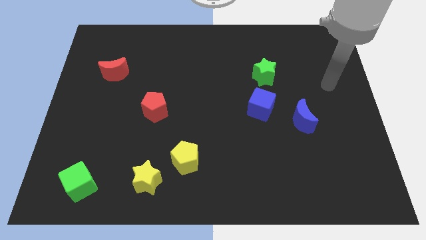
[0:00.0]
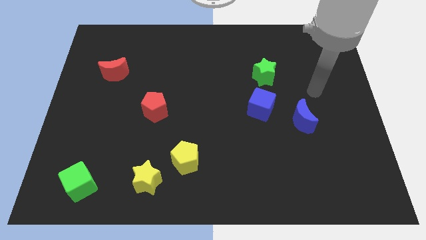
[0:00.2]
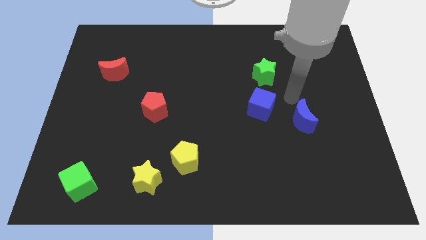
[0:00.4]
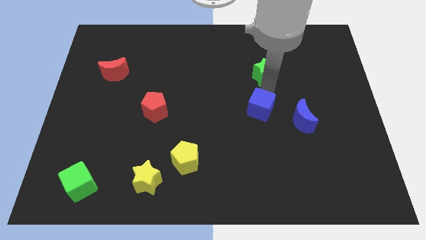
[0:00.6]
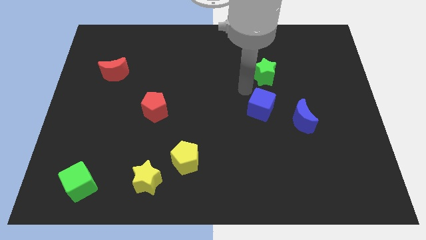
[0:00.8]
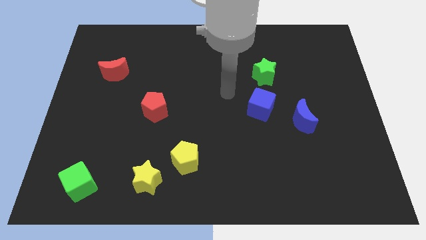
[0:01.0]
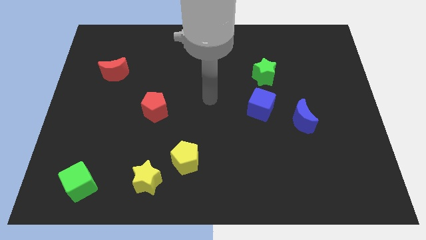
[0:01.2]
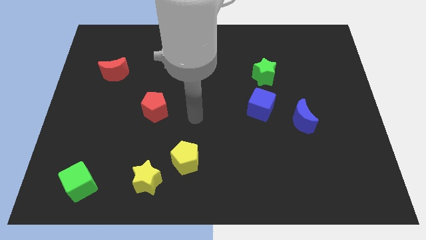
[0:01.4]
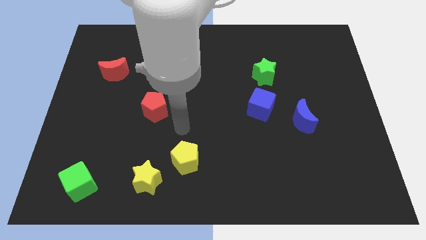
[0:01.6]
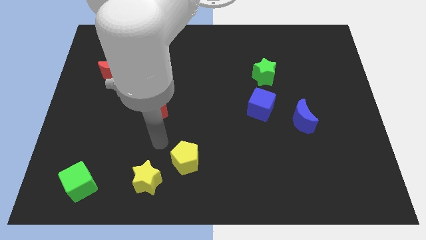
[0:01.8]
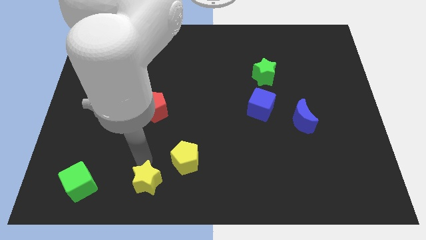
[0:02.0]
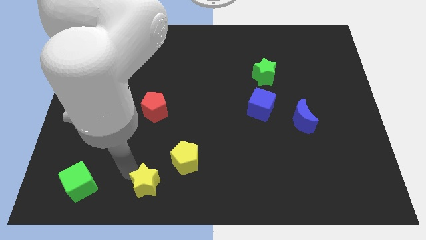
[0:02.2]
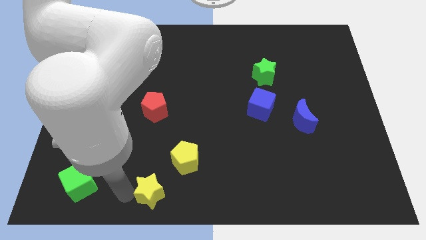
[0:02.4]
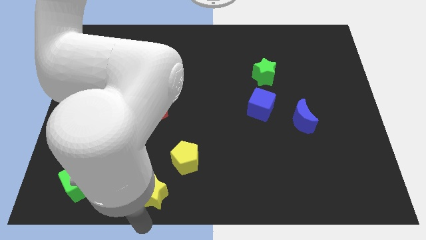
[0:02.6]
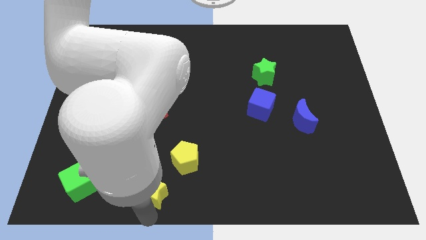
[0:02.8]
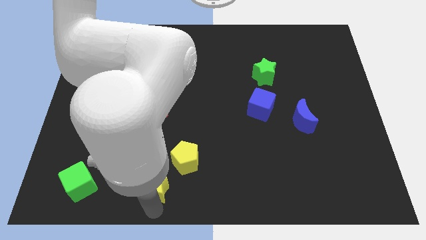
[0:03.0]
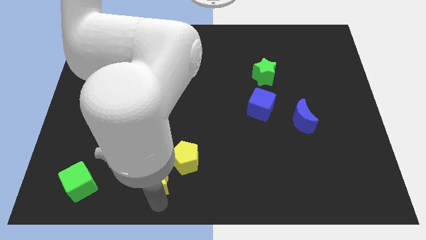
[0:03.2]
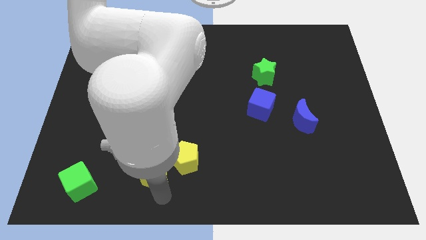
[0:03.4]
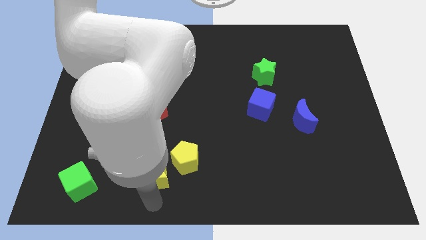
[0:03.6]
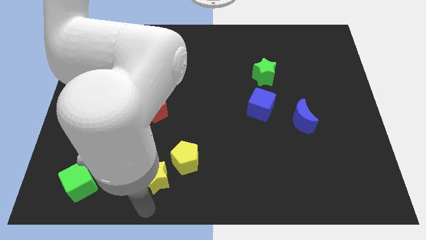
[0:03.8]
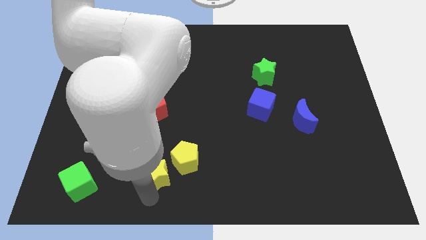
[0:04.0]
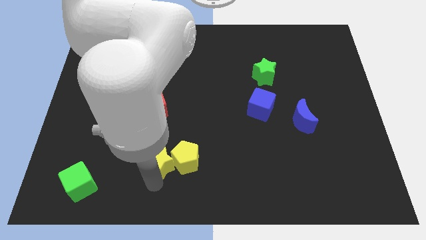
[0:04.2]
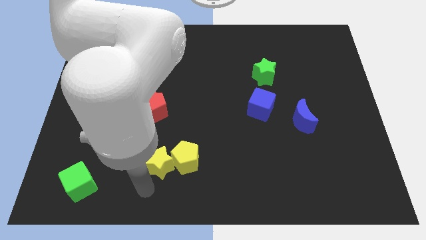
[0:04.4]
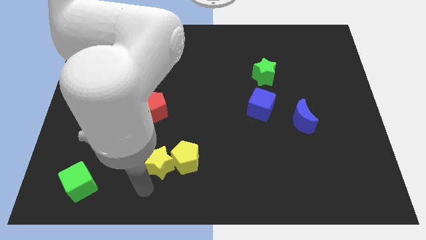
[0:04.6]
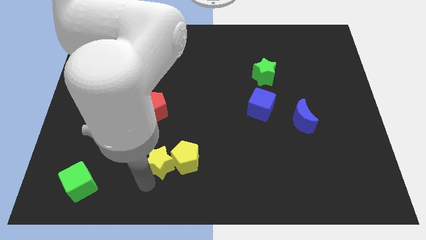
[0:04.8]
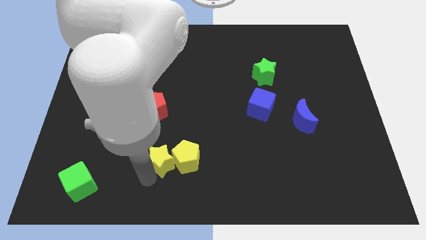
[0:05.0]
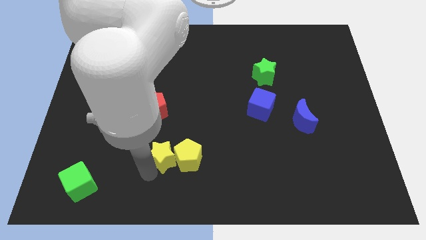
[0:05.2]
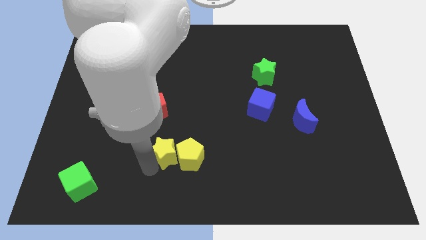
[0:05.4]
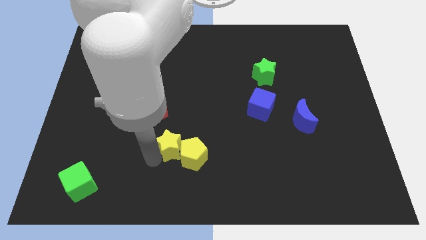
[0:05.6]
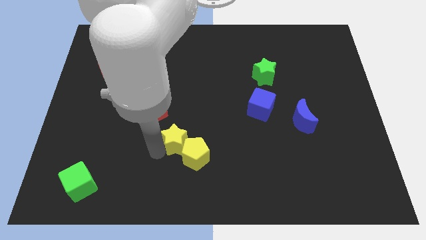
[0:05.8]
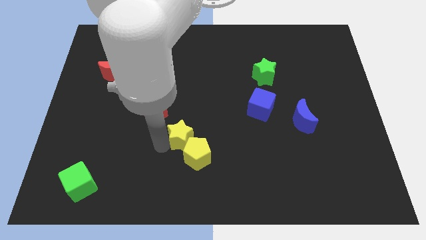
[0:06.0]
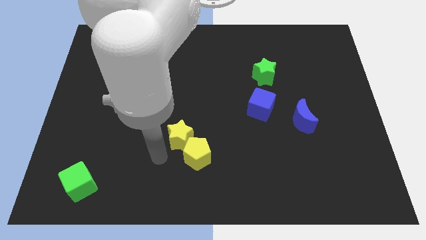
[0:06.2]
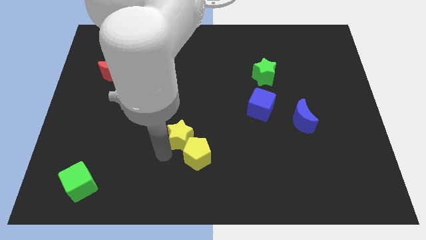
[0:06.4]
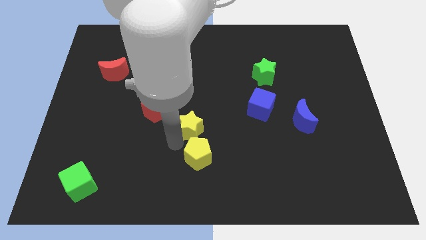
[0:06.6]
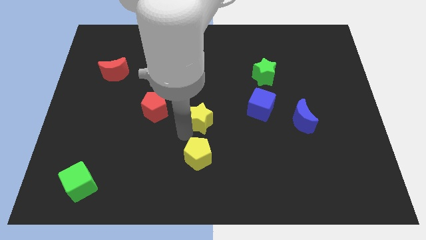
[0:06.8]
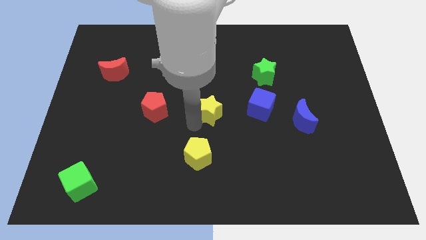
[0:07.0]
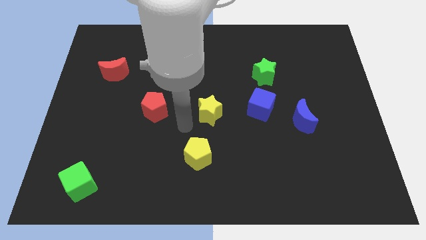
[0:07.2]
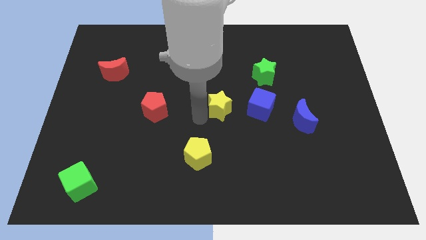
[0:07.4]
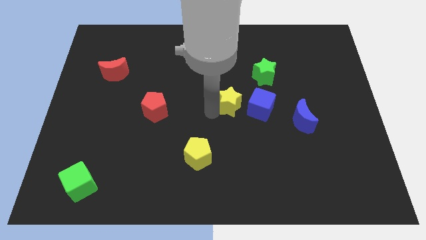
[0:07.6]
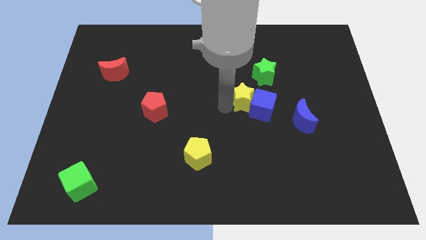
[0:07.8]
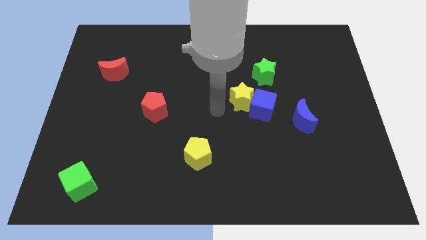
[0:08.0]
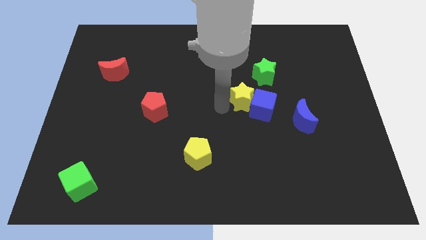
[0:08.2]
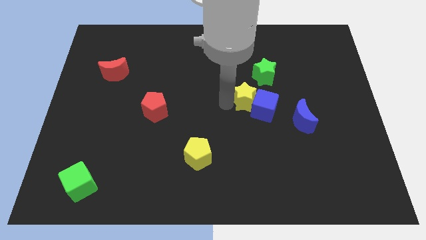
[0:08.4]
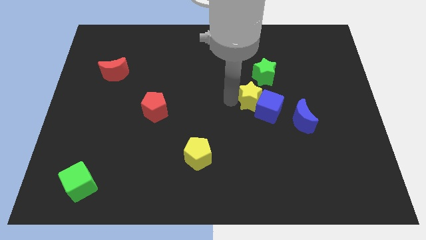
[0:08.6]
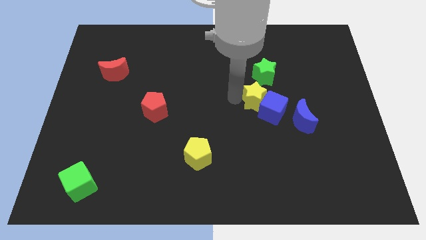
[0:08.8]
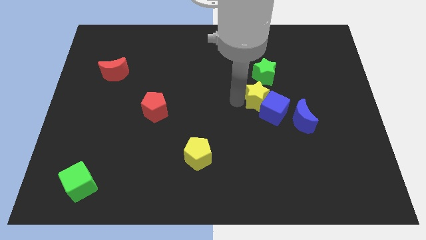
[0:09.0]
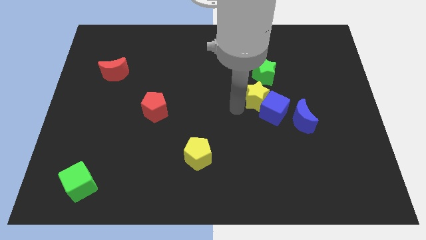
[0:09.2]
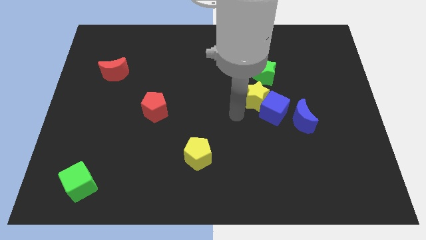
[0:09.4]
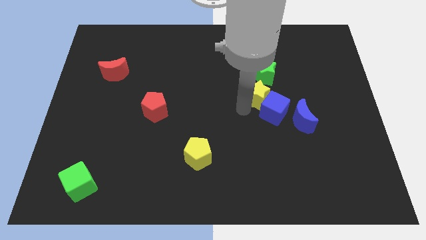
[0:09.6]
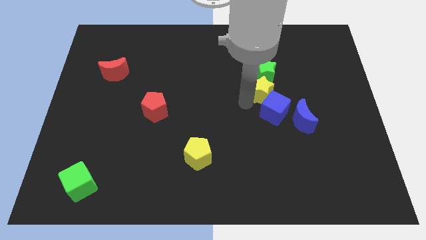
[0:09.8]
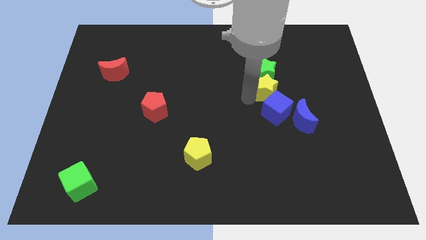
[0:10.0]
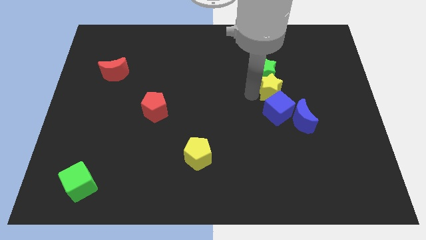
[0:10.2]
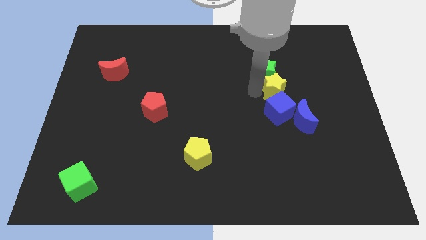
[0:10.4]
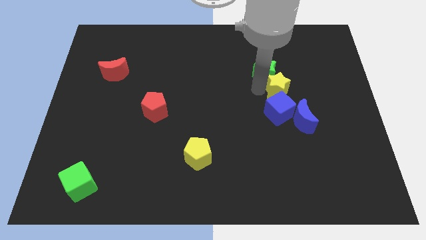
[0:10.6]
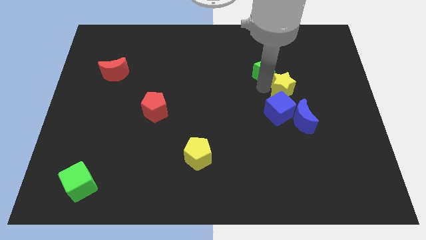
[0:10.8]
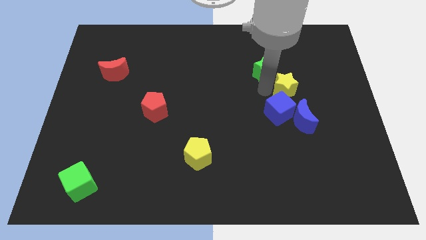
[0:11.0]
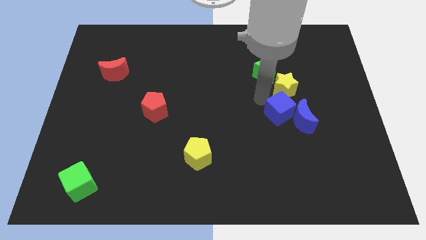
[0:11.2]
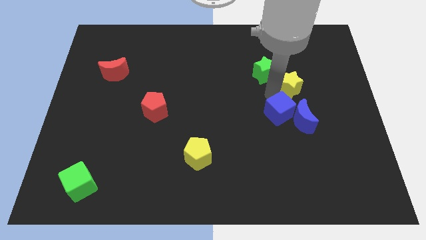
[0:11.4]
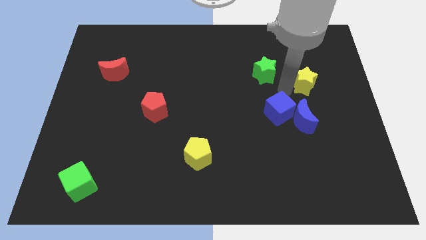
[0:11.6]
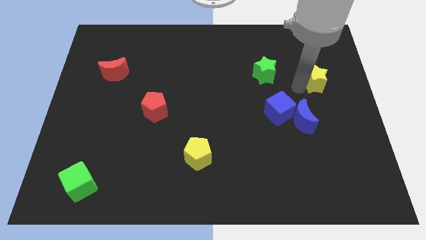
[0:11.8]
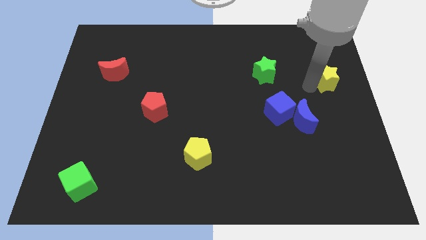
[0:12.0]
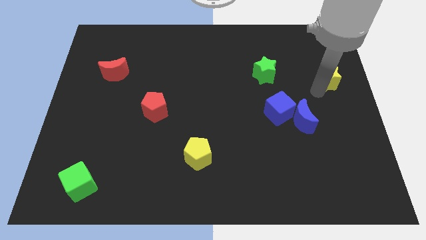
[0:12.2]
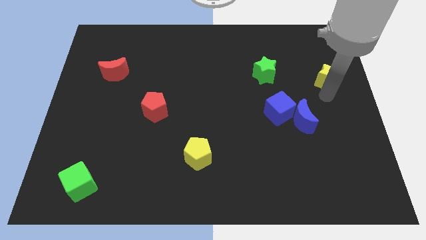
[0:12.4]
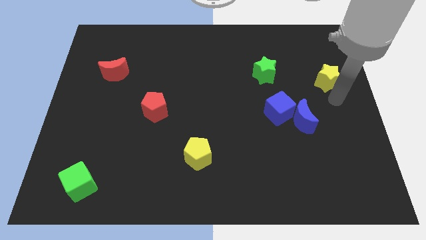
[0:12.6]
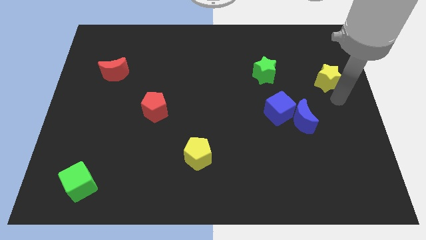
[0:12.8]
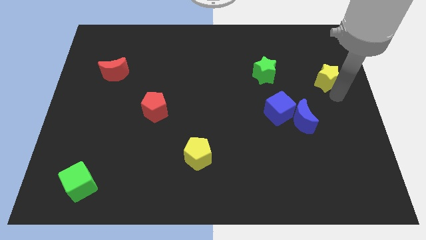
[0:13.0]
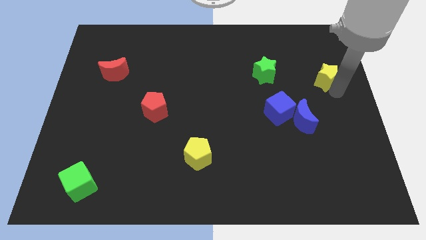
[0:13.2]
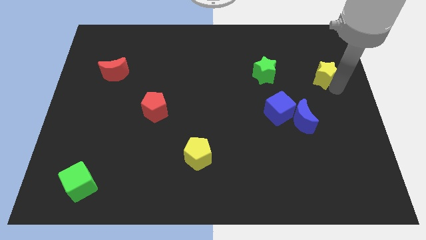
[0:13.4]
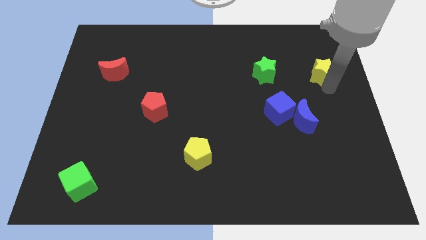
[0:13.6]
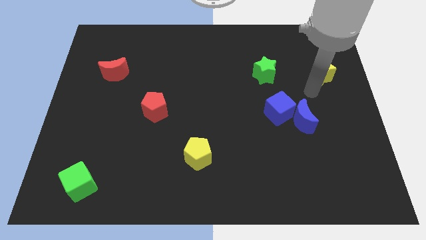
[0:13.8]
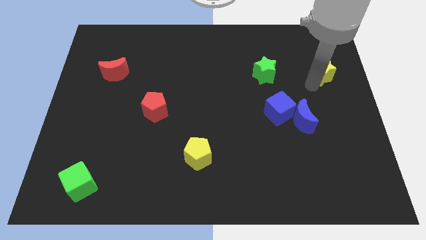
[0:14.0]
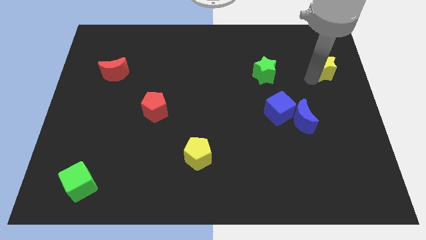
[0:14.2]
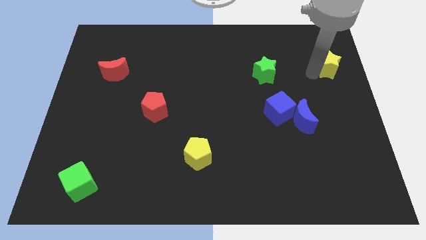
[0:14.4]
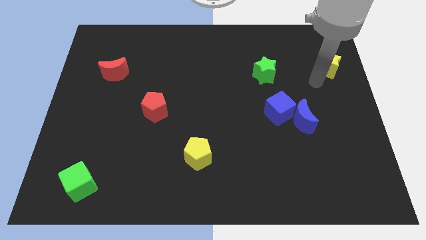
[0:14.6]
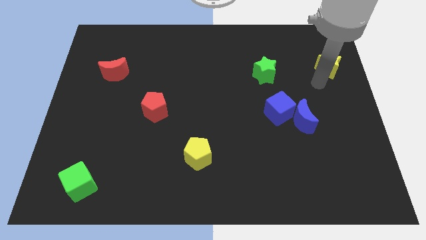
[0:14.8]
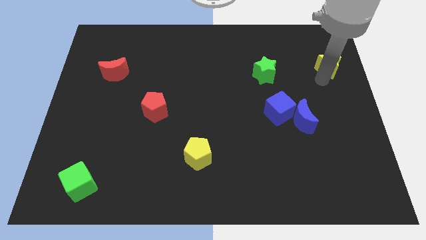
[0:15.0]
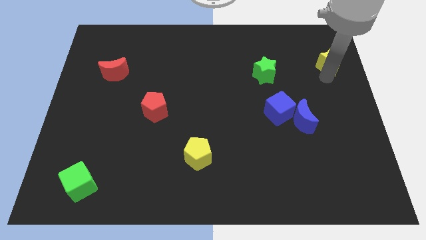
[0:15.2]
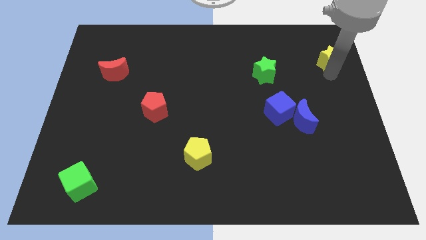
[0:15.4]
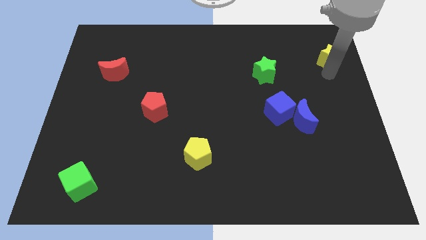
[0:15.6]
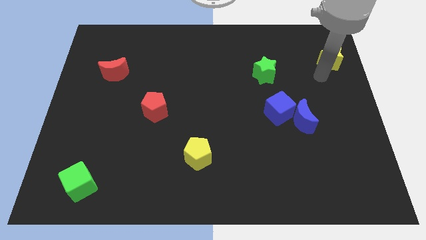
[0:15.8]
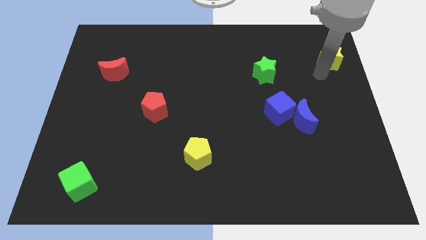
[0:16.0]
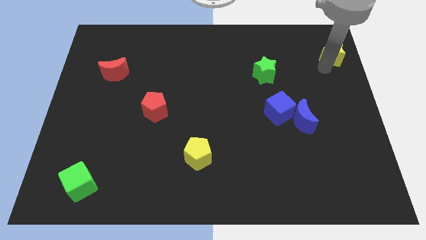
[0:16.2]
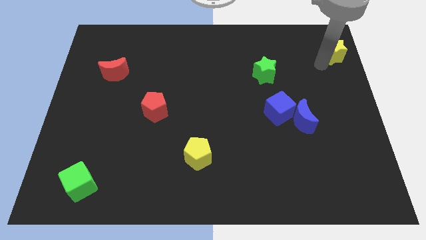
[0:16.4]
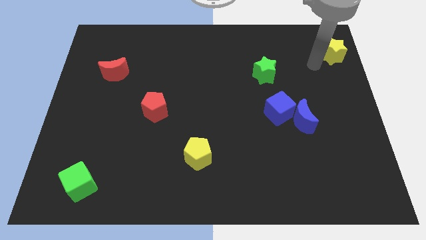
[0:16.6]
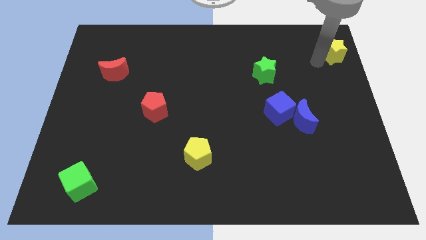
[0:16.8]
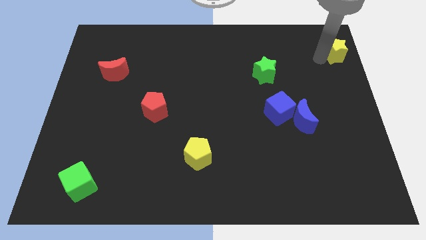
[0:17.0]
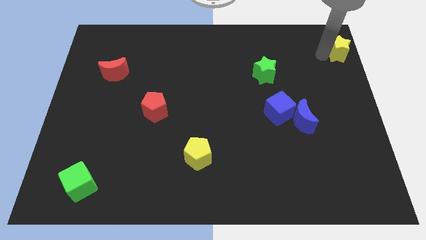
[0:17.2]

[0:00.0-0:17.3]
put the yellow star to the top right of the board
